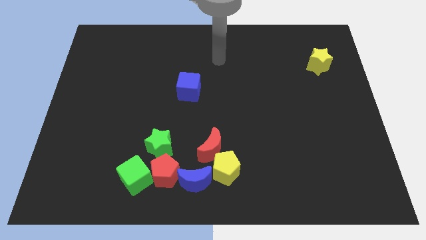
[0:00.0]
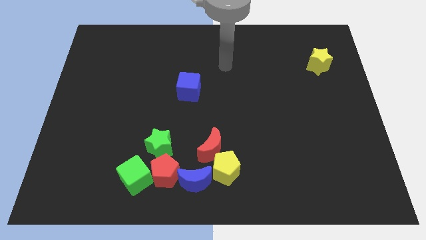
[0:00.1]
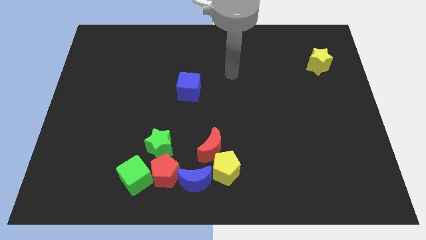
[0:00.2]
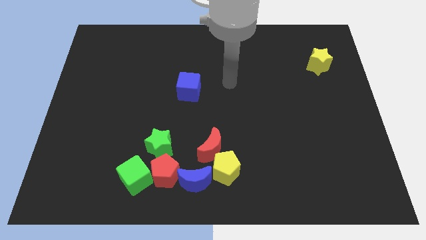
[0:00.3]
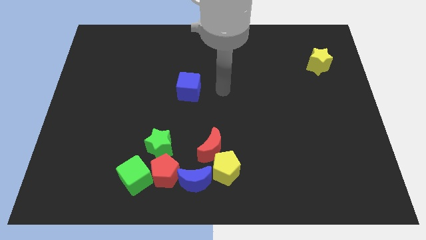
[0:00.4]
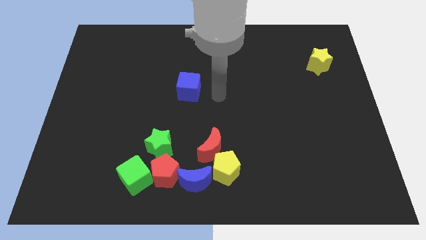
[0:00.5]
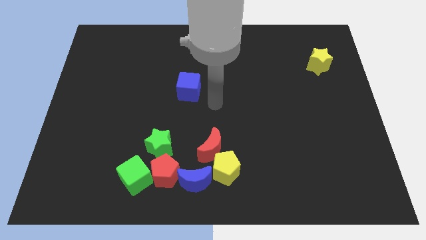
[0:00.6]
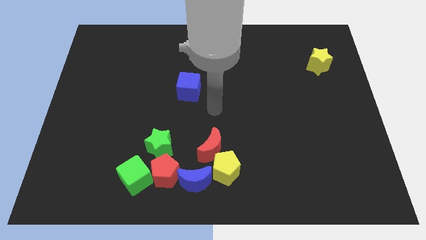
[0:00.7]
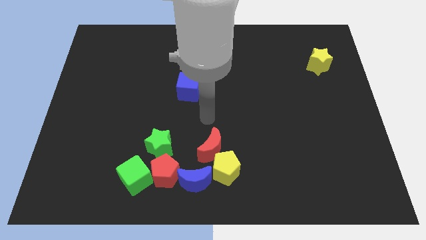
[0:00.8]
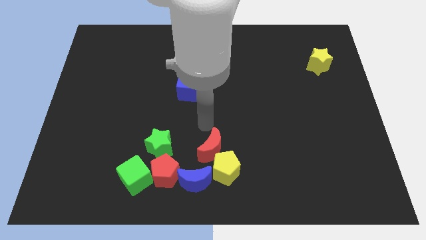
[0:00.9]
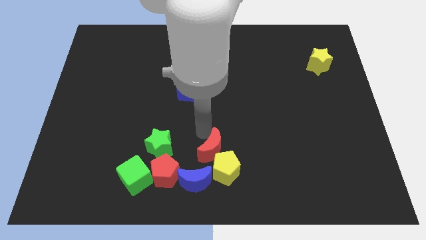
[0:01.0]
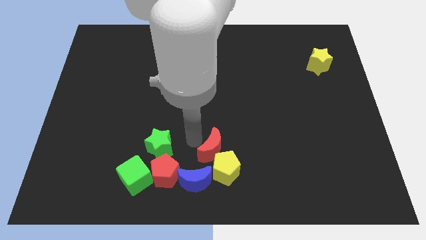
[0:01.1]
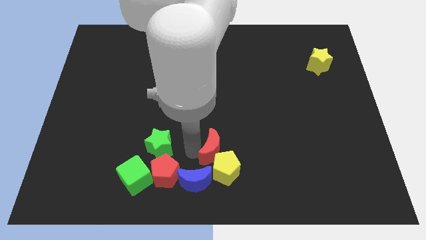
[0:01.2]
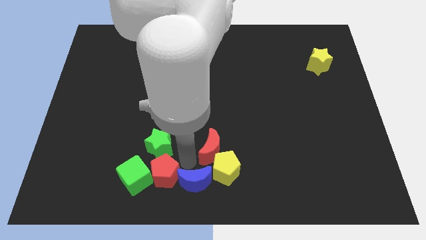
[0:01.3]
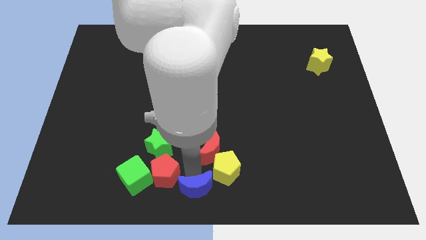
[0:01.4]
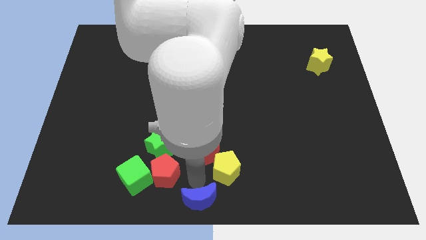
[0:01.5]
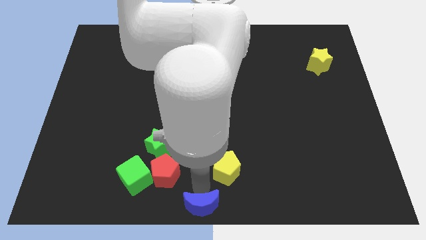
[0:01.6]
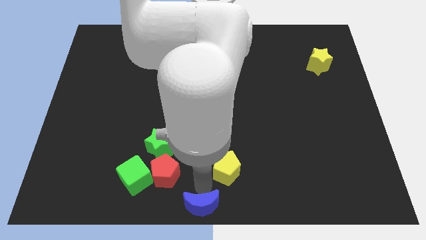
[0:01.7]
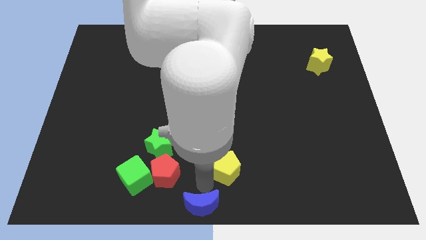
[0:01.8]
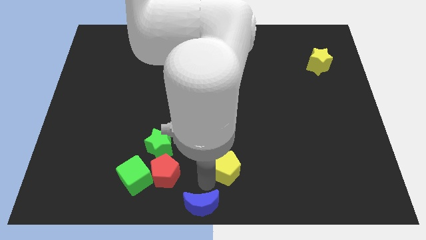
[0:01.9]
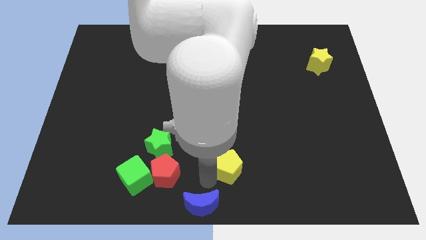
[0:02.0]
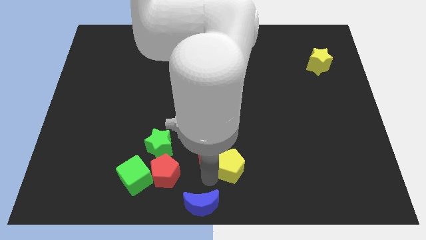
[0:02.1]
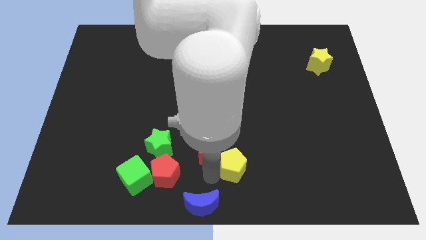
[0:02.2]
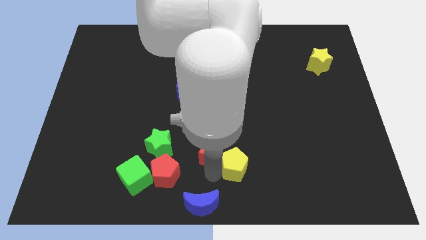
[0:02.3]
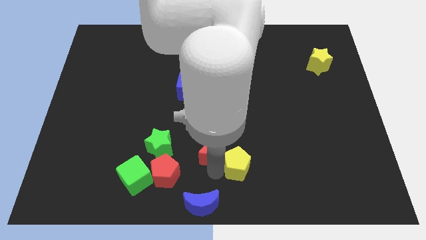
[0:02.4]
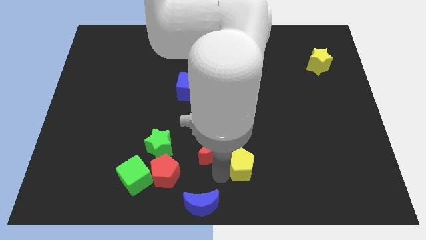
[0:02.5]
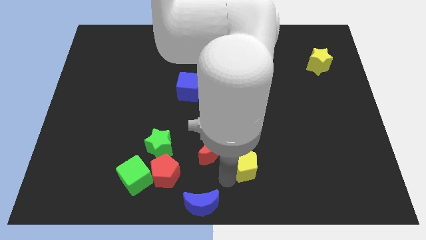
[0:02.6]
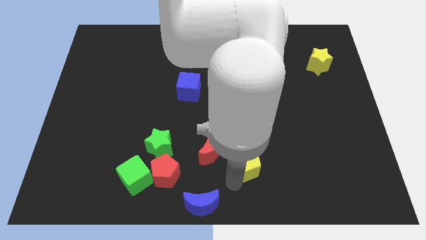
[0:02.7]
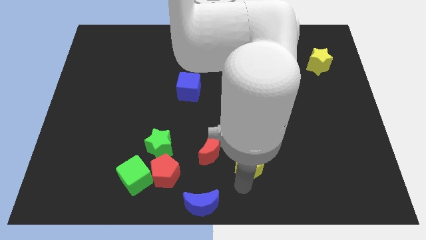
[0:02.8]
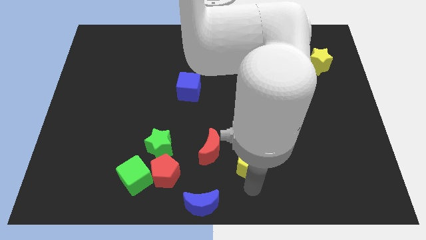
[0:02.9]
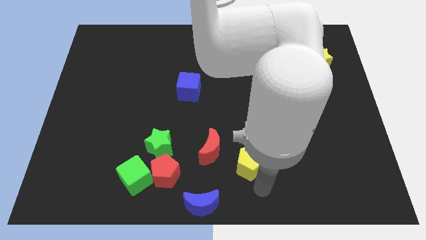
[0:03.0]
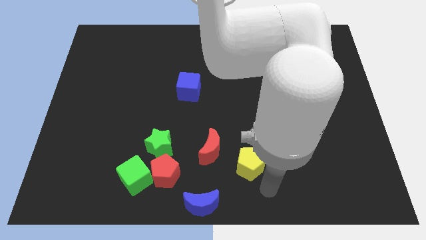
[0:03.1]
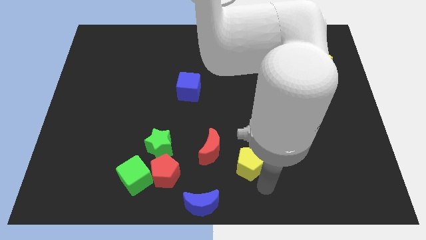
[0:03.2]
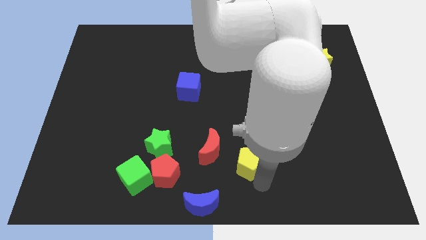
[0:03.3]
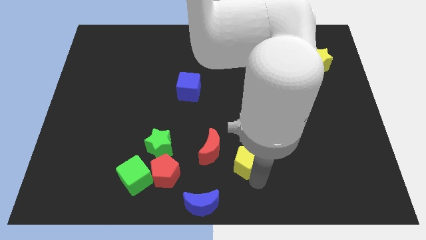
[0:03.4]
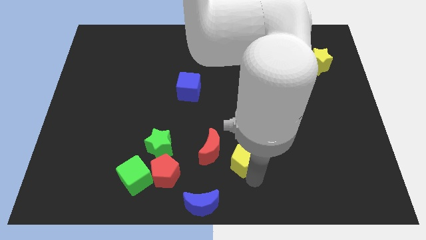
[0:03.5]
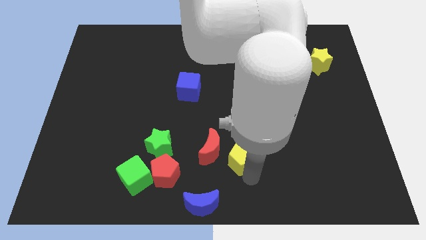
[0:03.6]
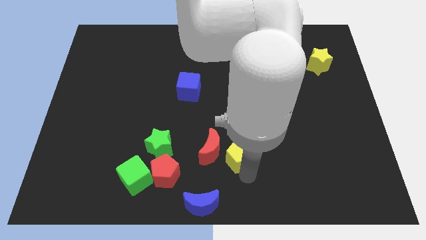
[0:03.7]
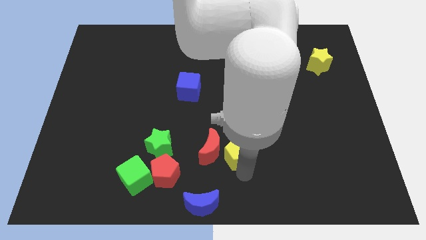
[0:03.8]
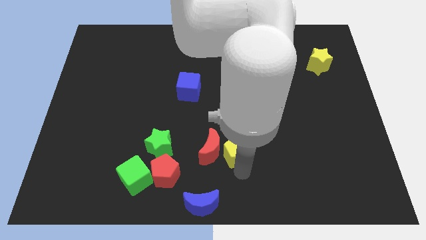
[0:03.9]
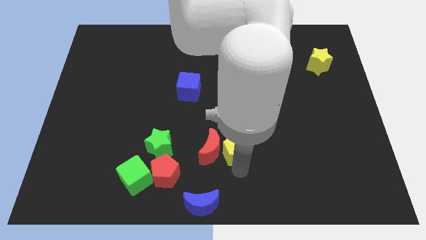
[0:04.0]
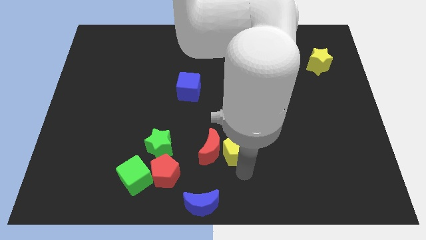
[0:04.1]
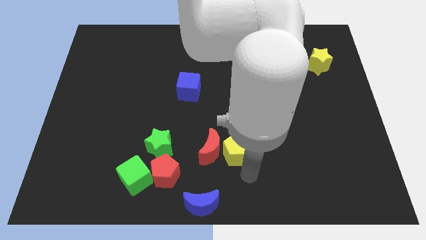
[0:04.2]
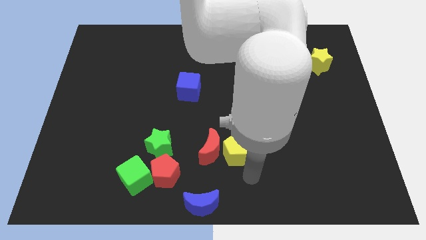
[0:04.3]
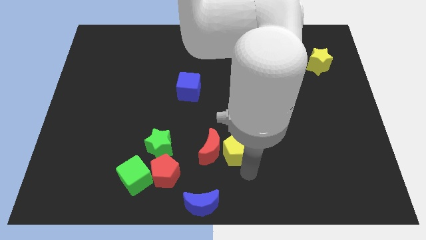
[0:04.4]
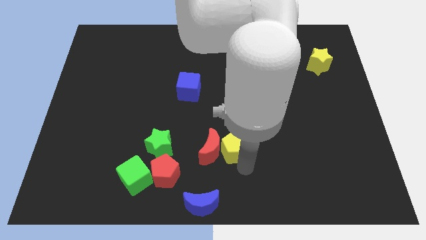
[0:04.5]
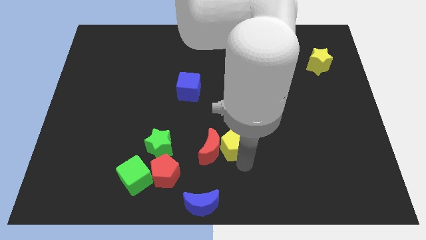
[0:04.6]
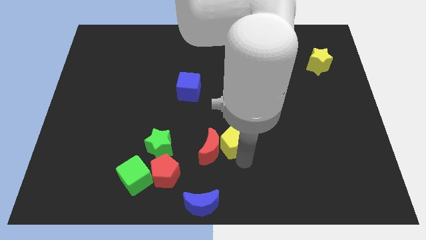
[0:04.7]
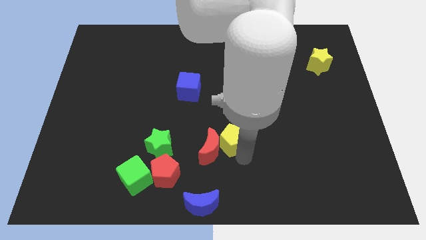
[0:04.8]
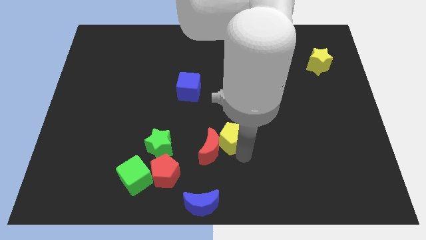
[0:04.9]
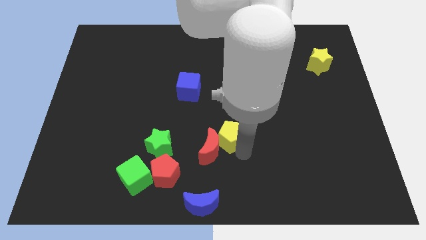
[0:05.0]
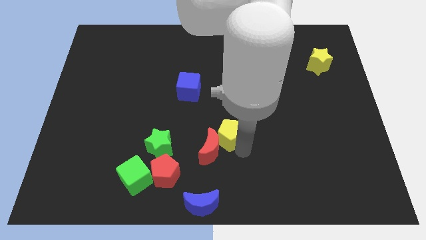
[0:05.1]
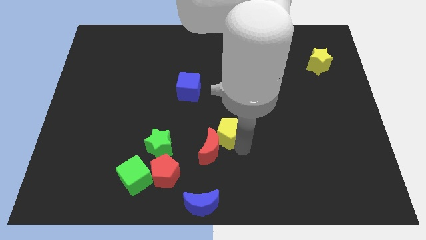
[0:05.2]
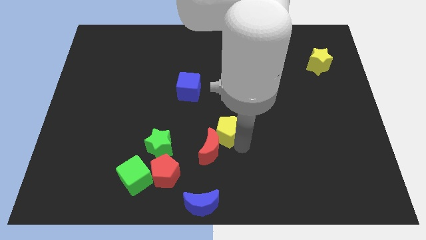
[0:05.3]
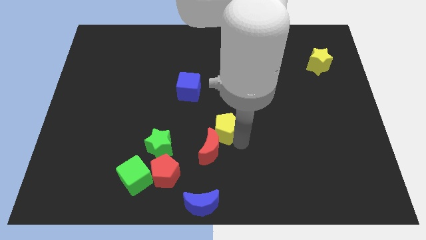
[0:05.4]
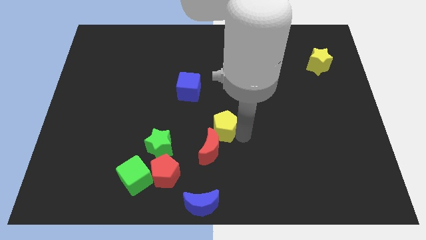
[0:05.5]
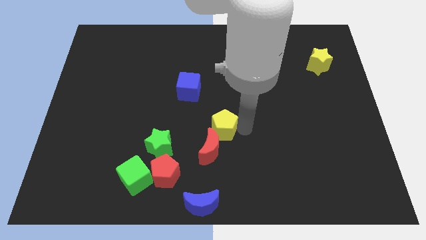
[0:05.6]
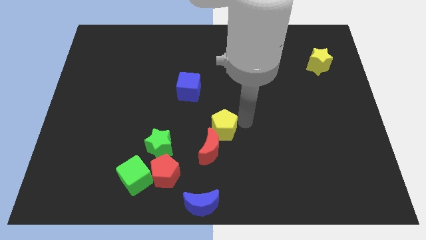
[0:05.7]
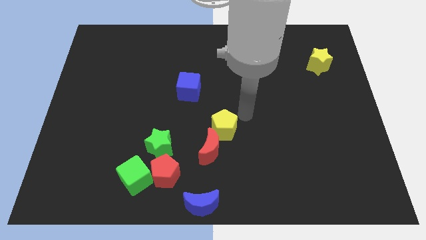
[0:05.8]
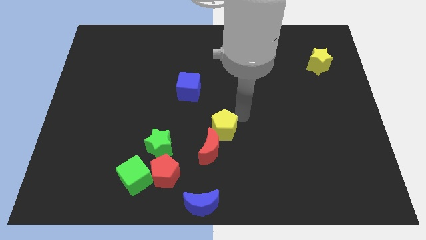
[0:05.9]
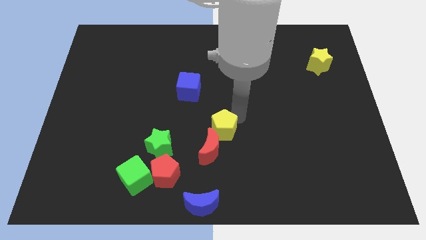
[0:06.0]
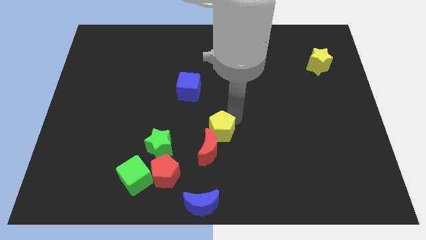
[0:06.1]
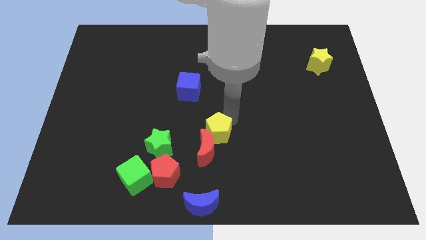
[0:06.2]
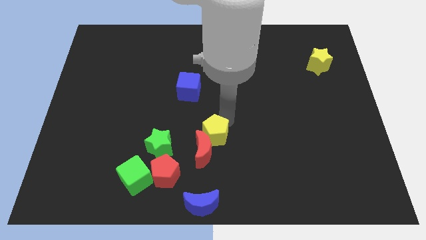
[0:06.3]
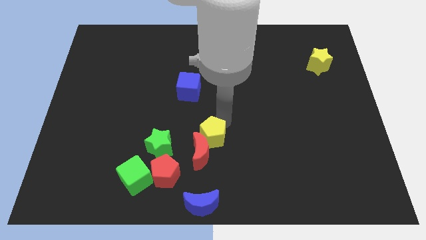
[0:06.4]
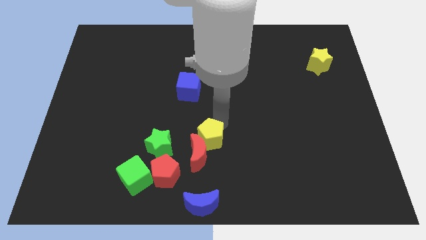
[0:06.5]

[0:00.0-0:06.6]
move the yellow pentagon diagonally up and to the right of the red pentagon

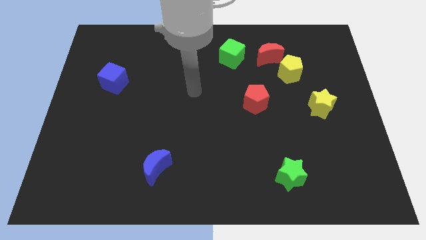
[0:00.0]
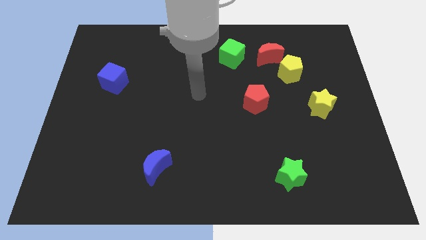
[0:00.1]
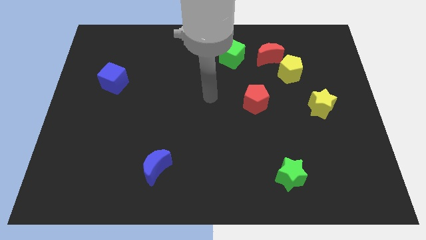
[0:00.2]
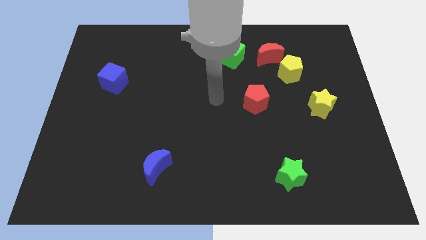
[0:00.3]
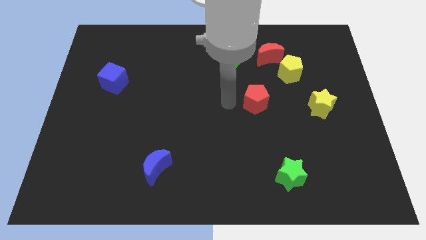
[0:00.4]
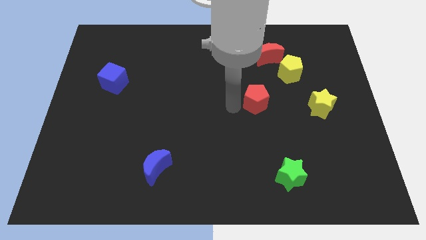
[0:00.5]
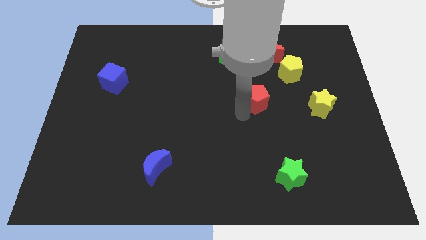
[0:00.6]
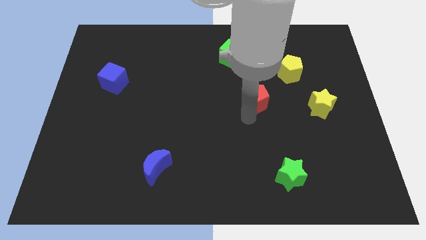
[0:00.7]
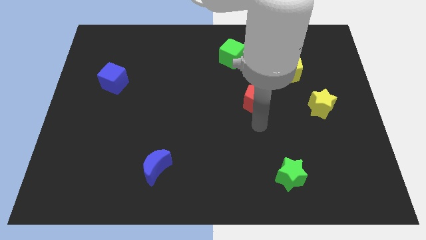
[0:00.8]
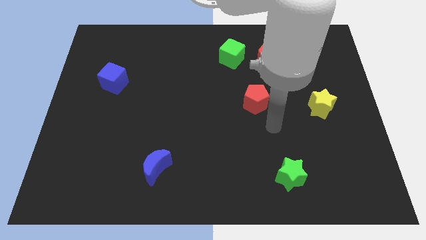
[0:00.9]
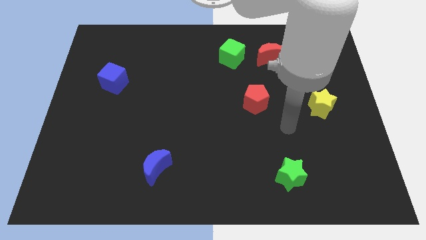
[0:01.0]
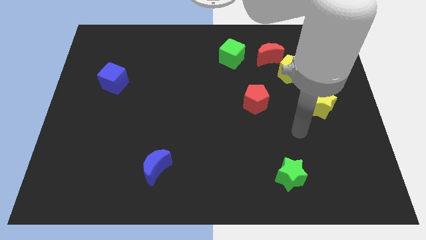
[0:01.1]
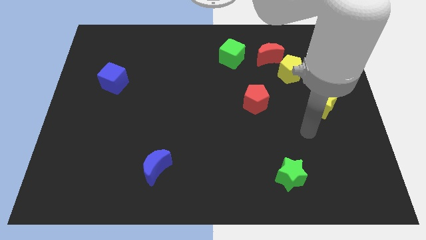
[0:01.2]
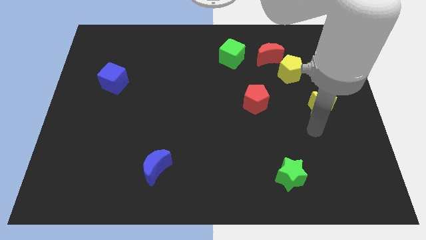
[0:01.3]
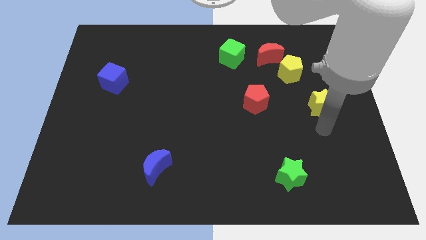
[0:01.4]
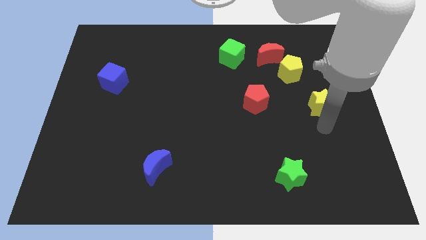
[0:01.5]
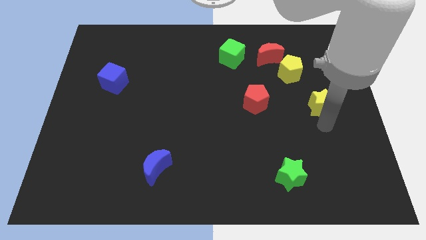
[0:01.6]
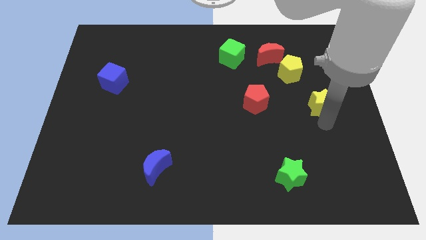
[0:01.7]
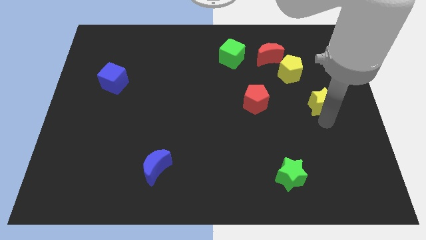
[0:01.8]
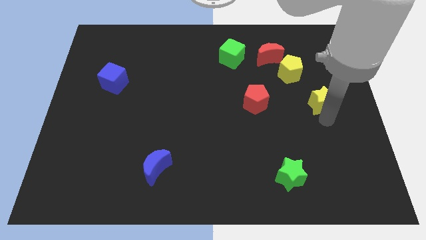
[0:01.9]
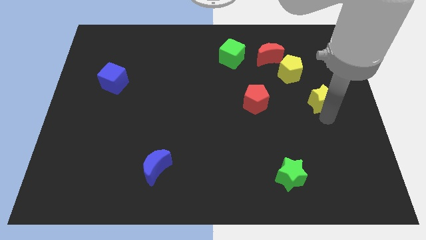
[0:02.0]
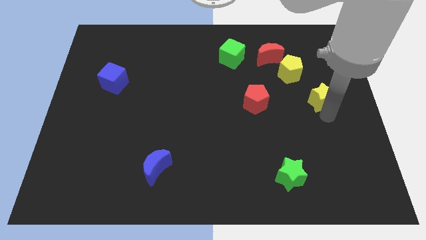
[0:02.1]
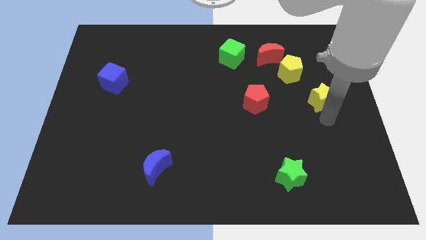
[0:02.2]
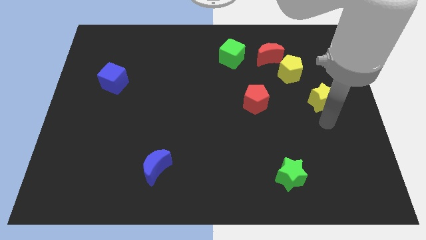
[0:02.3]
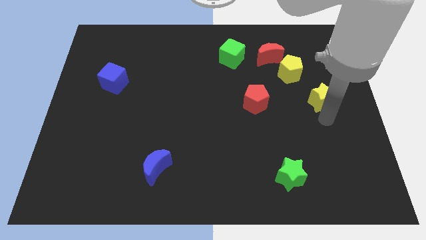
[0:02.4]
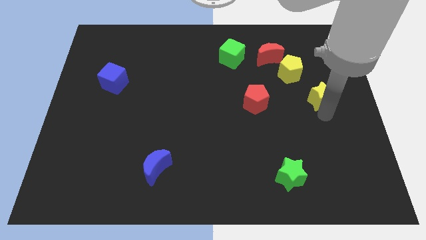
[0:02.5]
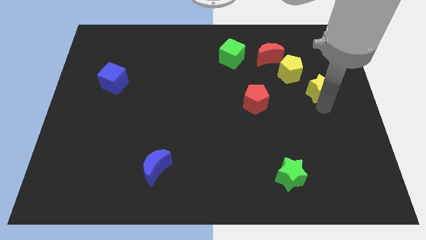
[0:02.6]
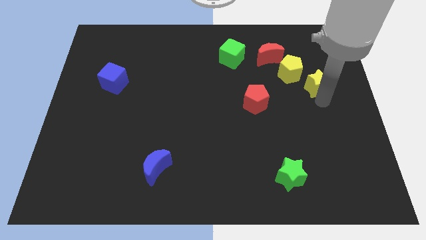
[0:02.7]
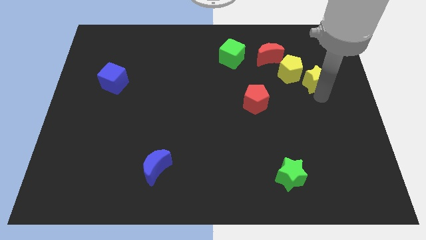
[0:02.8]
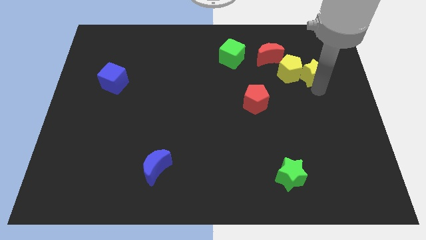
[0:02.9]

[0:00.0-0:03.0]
put the yellow star diagonally up and to the right of the yellow pentagon
